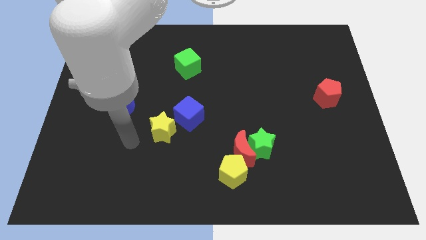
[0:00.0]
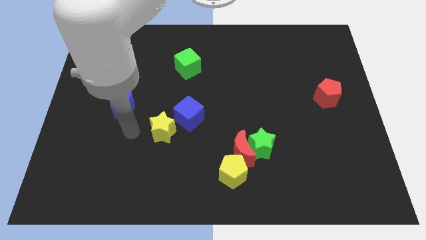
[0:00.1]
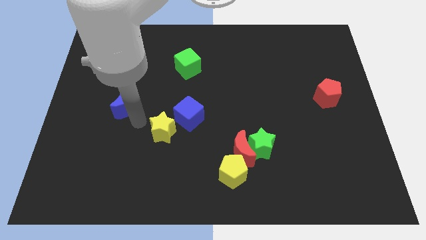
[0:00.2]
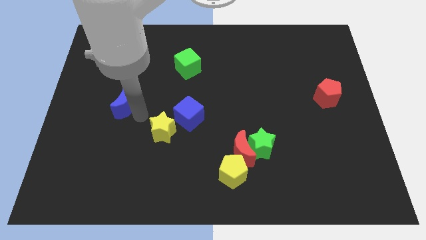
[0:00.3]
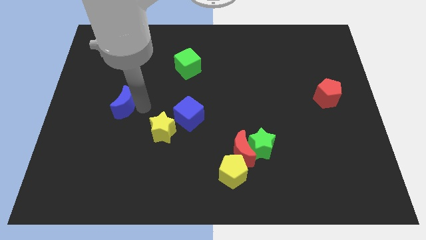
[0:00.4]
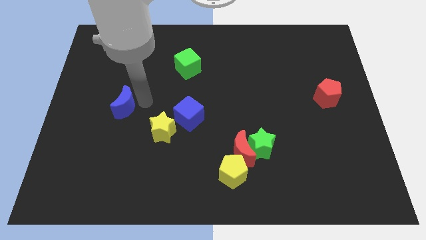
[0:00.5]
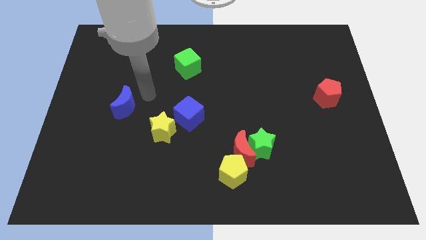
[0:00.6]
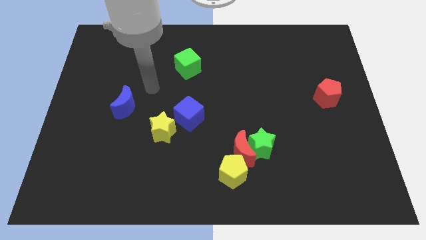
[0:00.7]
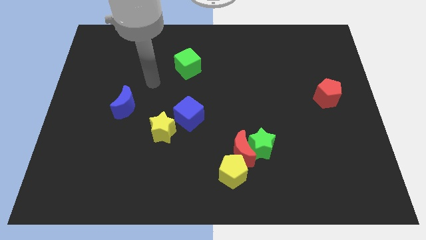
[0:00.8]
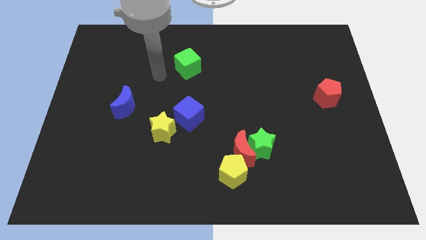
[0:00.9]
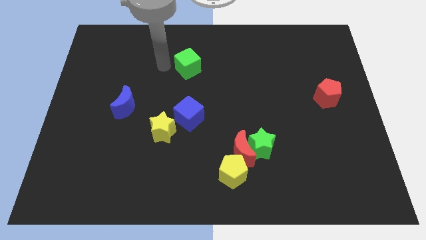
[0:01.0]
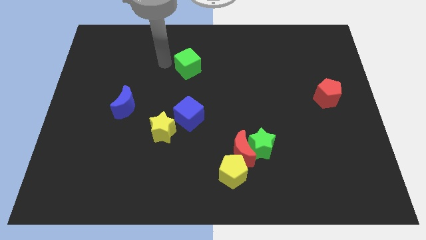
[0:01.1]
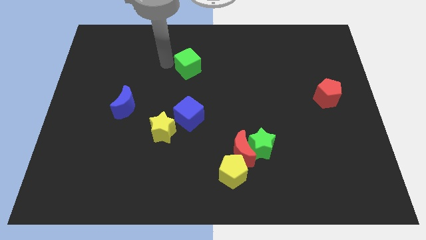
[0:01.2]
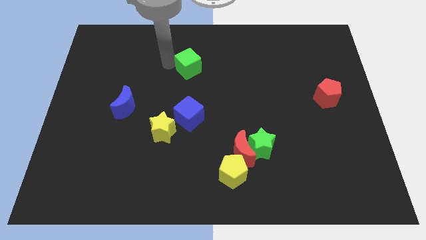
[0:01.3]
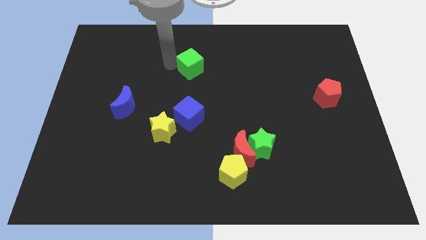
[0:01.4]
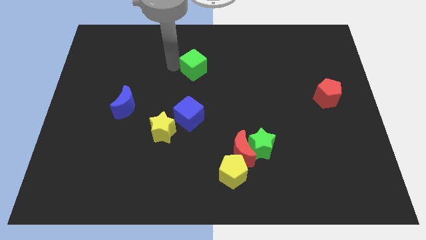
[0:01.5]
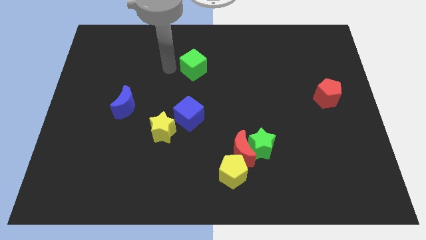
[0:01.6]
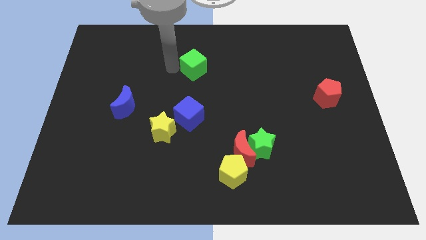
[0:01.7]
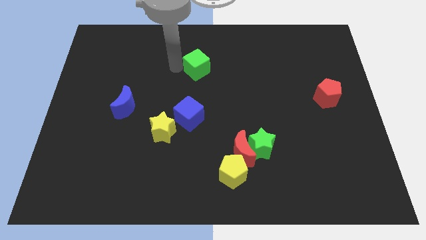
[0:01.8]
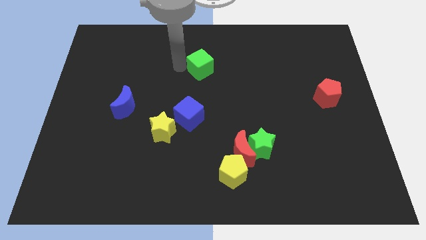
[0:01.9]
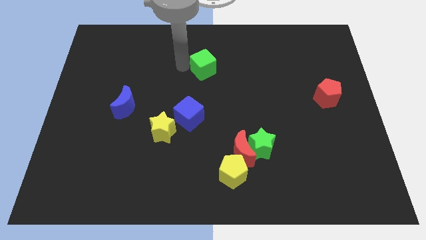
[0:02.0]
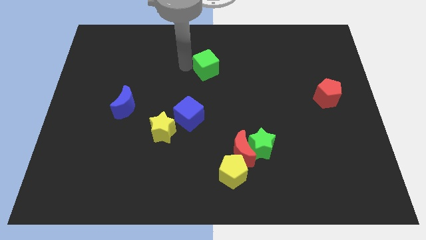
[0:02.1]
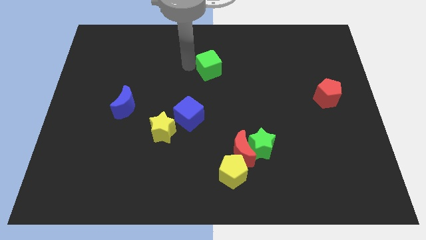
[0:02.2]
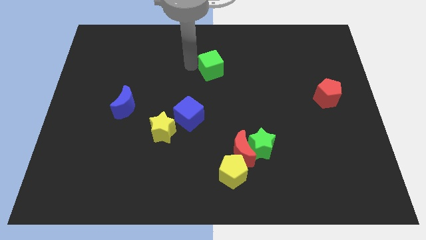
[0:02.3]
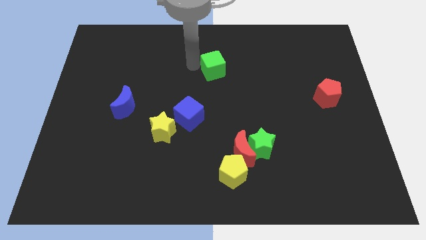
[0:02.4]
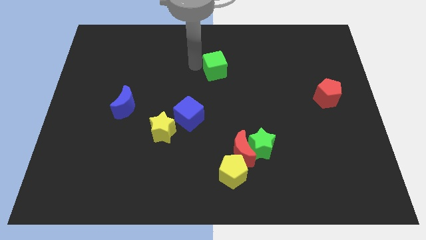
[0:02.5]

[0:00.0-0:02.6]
move the green cube a bit to the right

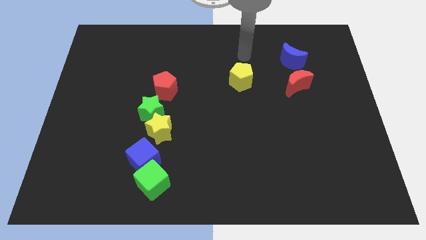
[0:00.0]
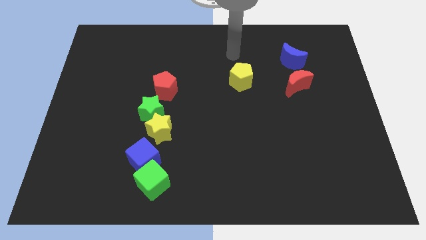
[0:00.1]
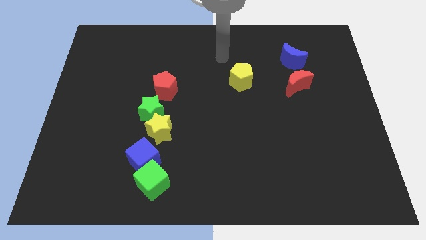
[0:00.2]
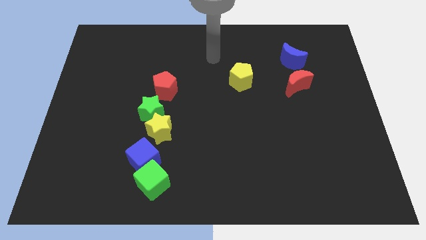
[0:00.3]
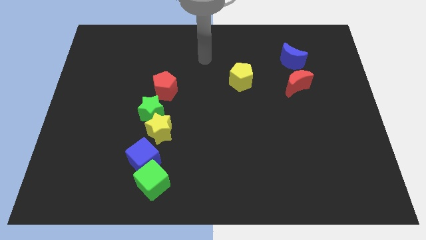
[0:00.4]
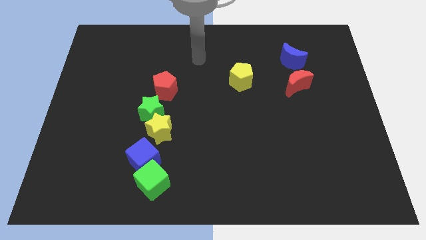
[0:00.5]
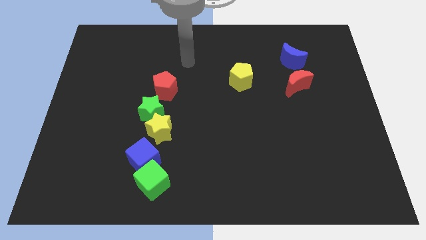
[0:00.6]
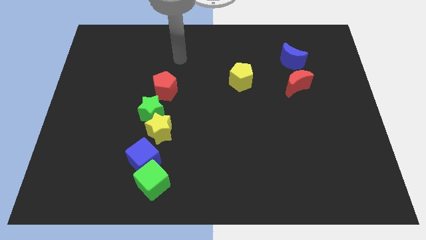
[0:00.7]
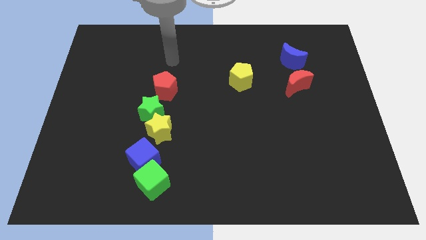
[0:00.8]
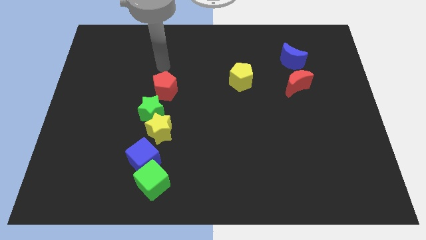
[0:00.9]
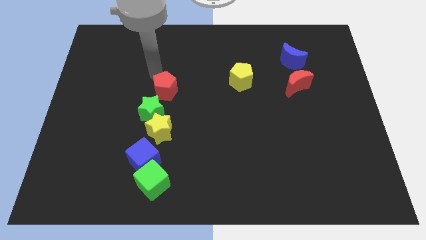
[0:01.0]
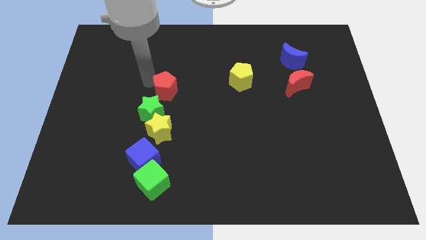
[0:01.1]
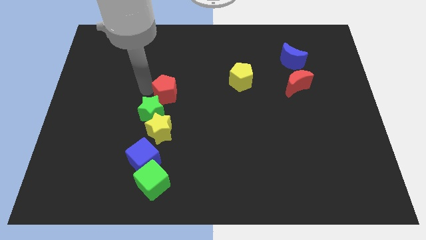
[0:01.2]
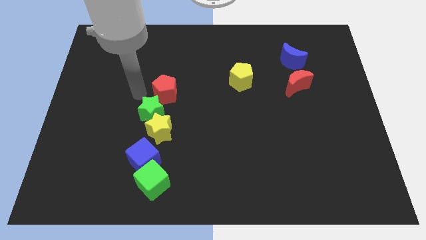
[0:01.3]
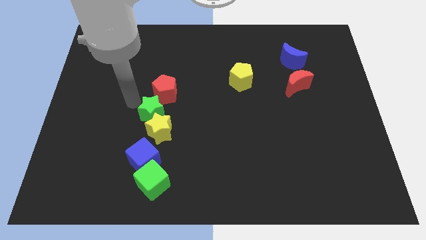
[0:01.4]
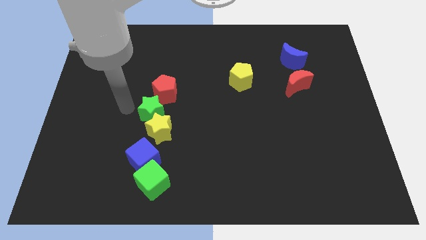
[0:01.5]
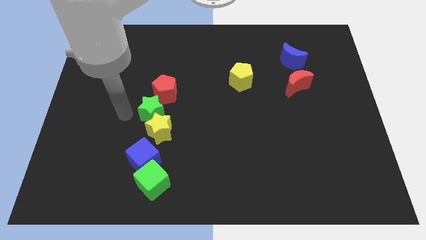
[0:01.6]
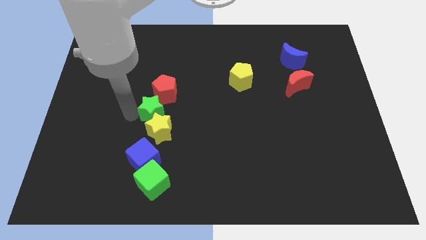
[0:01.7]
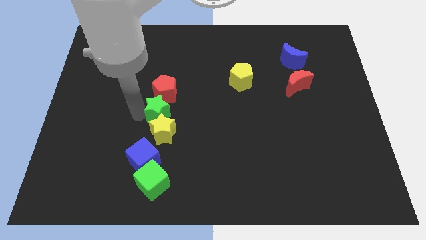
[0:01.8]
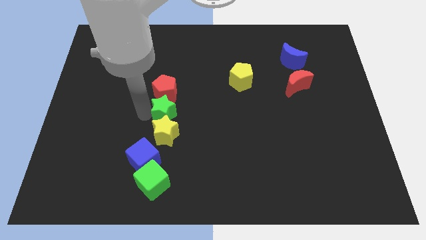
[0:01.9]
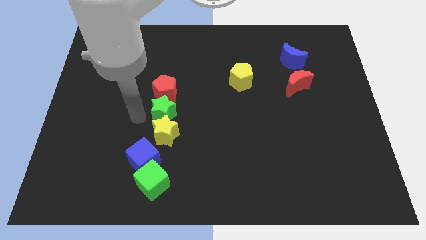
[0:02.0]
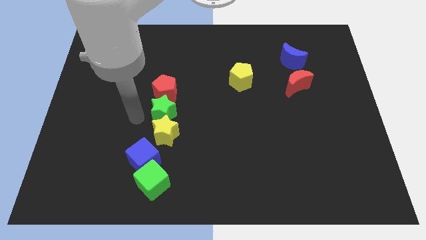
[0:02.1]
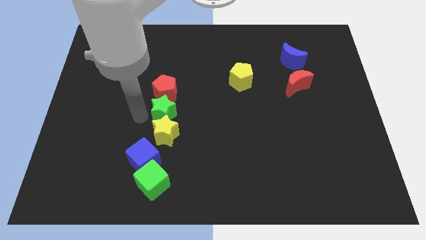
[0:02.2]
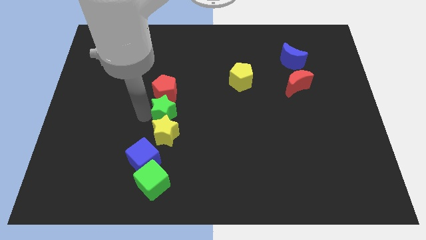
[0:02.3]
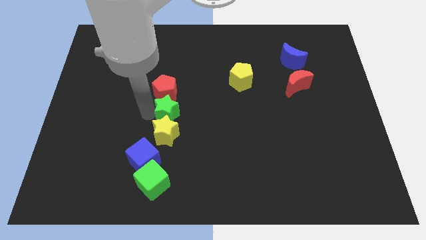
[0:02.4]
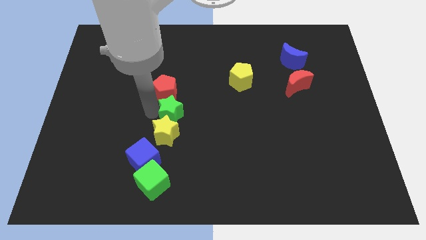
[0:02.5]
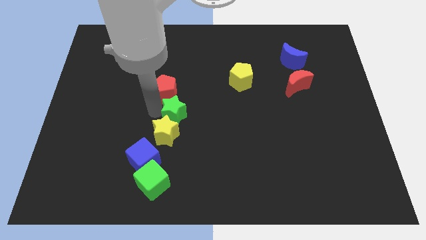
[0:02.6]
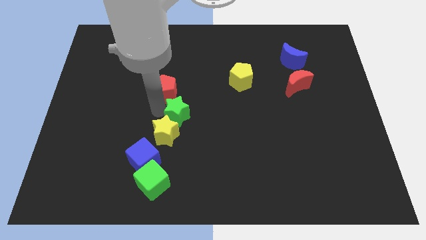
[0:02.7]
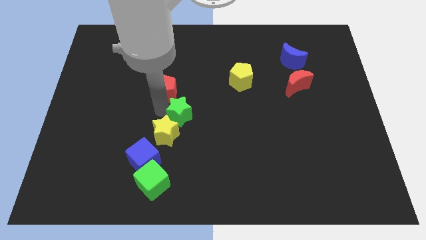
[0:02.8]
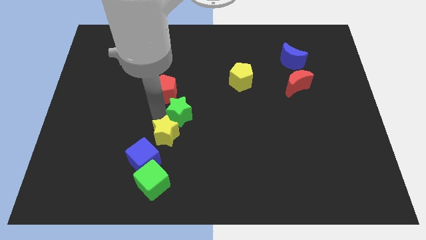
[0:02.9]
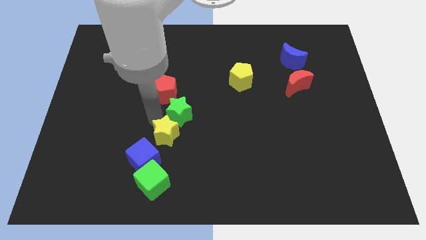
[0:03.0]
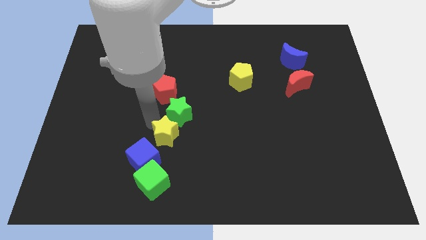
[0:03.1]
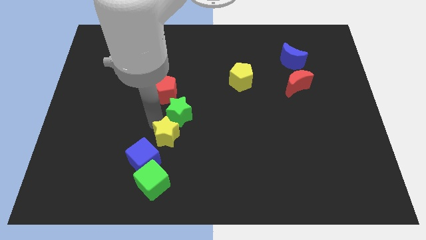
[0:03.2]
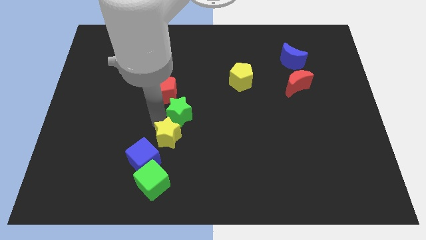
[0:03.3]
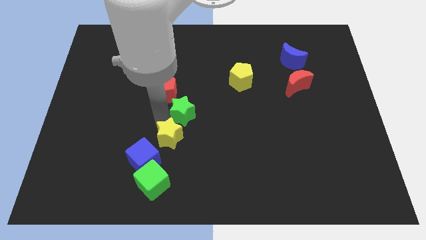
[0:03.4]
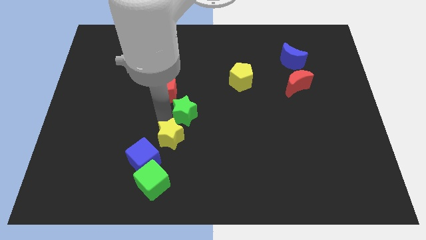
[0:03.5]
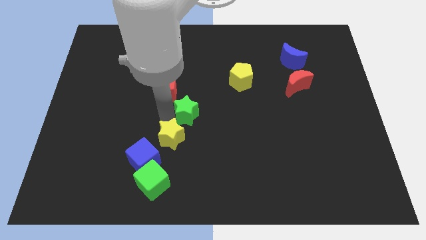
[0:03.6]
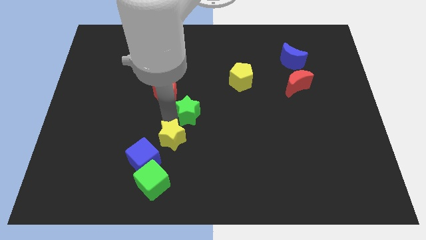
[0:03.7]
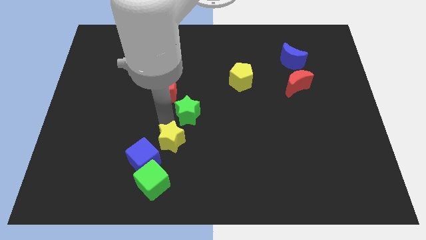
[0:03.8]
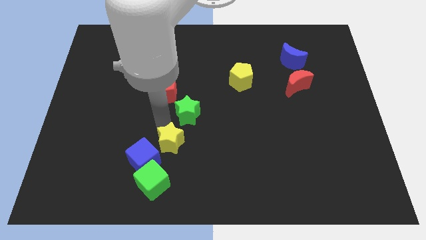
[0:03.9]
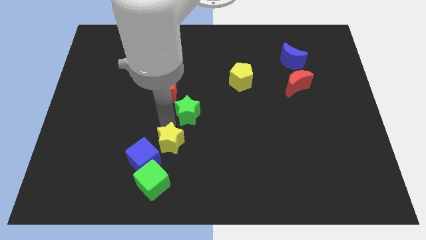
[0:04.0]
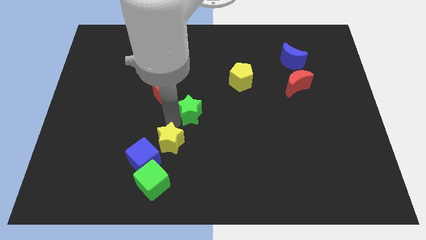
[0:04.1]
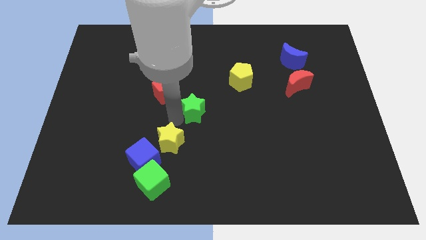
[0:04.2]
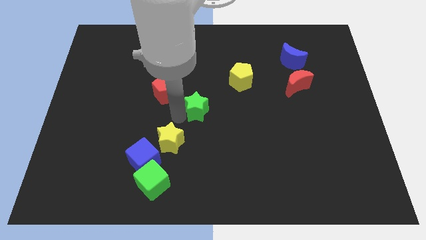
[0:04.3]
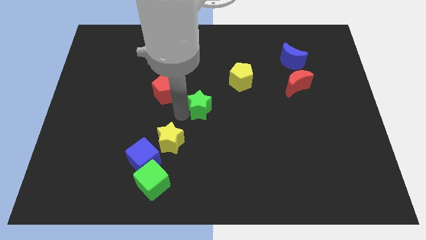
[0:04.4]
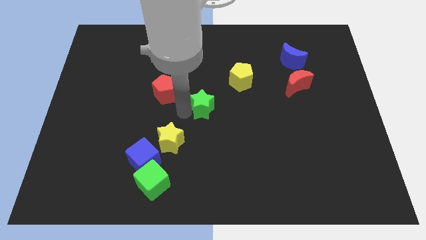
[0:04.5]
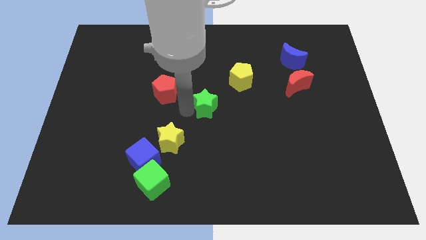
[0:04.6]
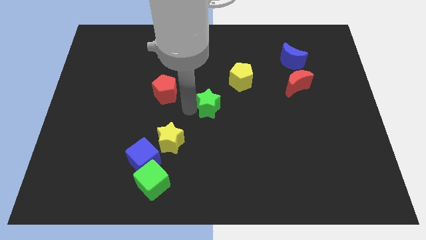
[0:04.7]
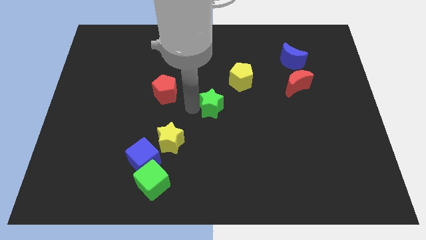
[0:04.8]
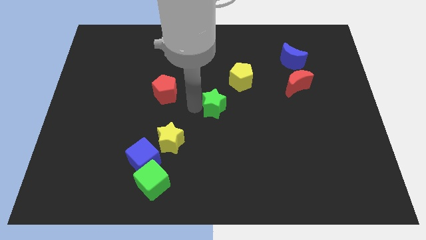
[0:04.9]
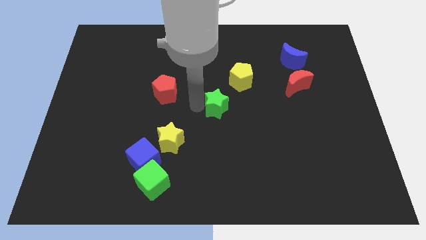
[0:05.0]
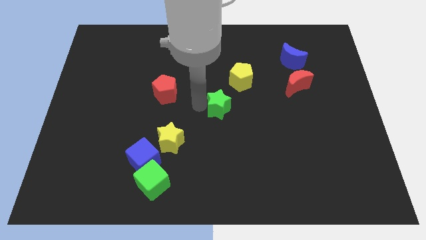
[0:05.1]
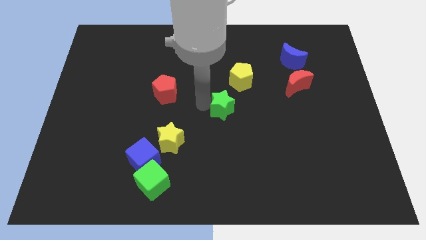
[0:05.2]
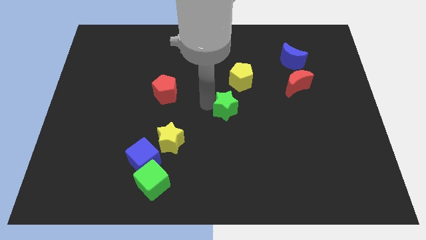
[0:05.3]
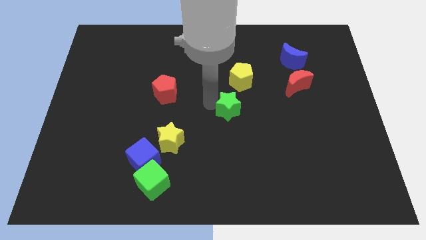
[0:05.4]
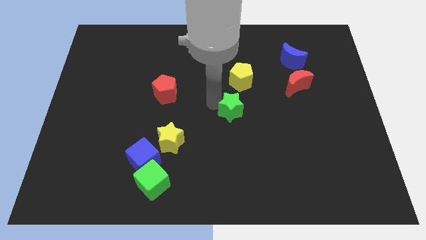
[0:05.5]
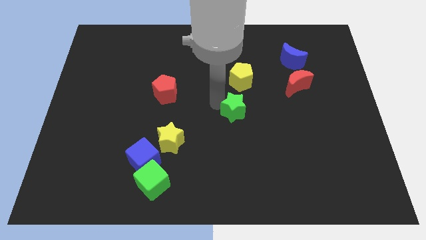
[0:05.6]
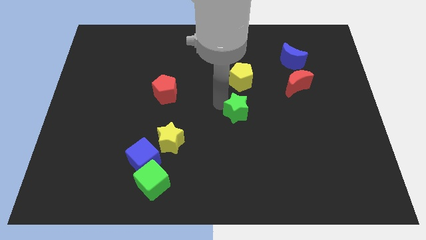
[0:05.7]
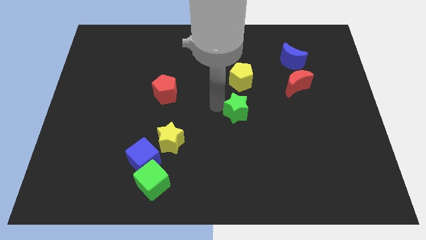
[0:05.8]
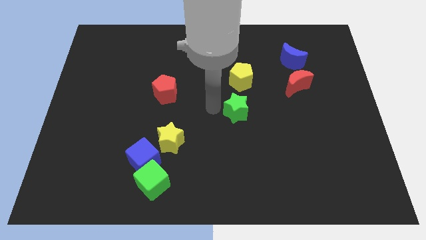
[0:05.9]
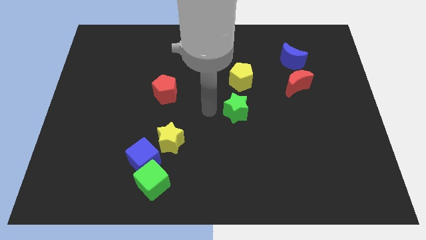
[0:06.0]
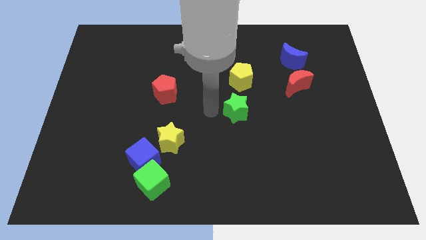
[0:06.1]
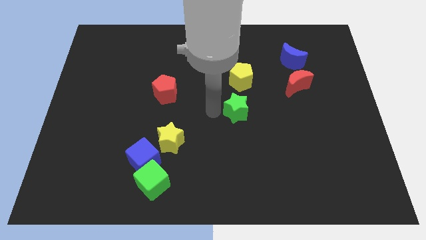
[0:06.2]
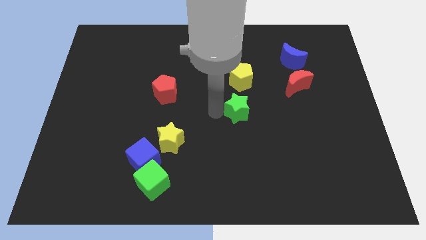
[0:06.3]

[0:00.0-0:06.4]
move the green star to the right
